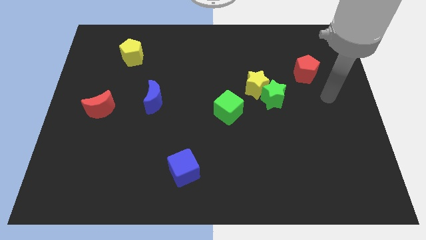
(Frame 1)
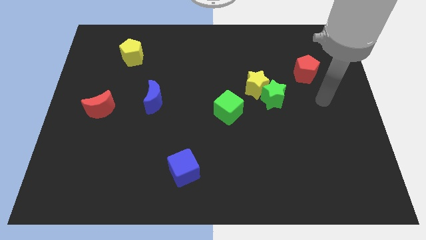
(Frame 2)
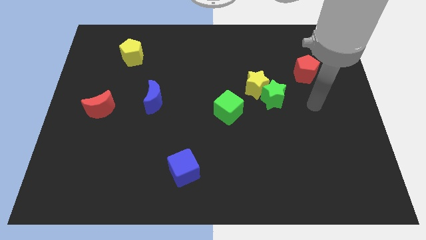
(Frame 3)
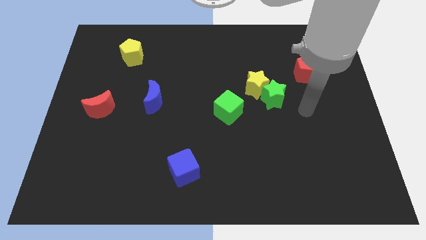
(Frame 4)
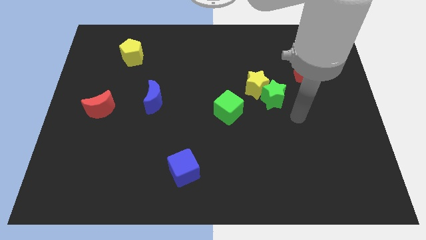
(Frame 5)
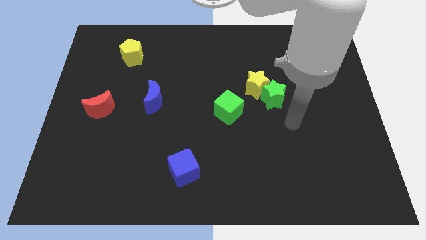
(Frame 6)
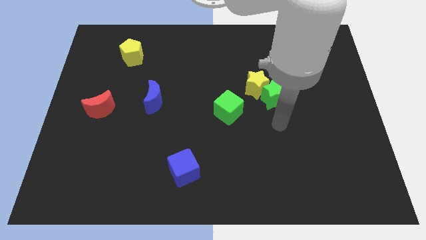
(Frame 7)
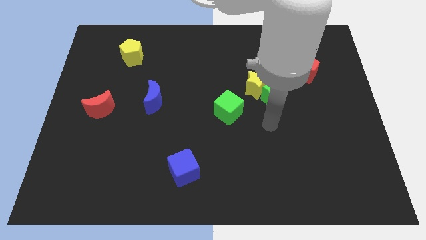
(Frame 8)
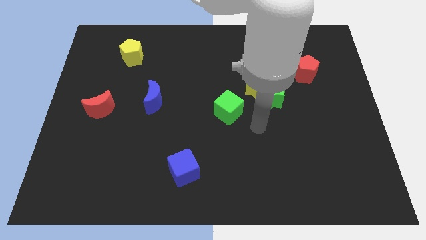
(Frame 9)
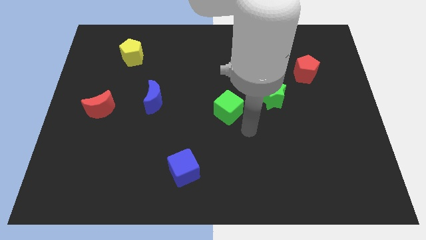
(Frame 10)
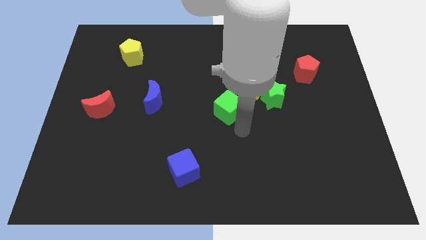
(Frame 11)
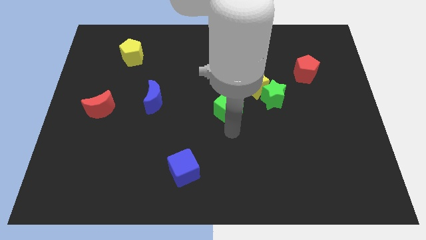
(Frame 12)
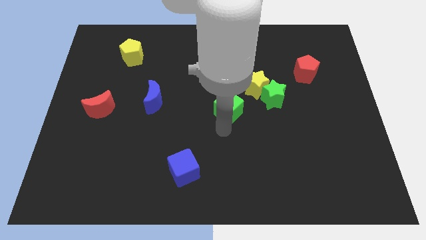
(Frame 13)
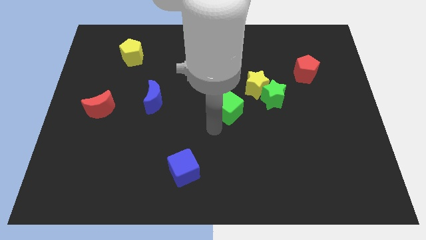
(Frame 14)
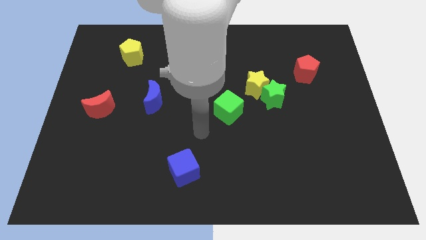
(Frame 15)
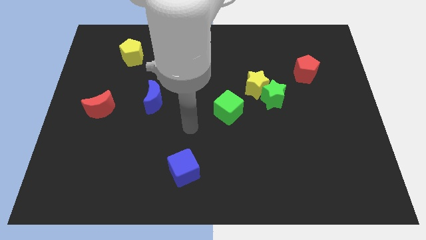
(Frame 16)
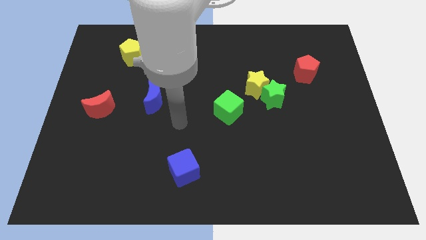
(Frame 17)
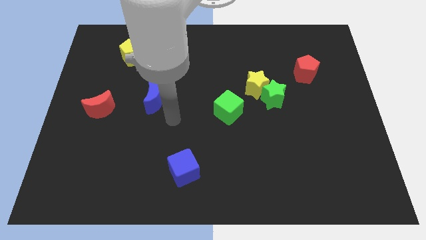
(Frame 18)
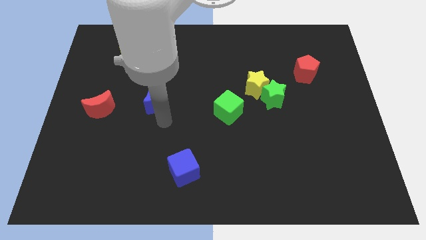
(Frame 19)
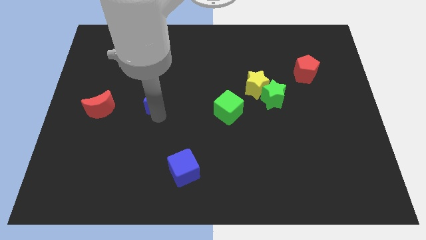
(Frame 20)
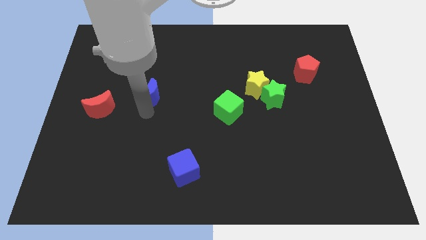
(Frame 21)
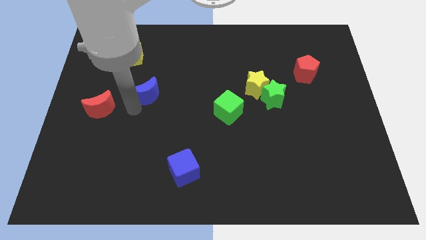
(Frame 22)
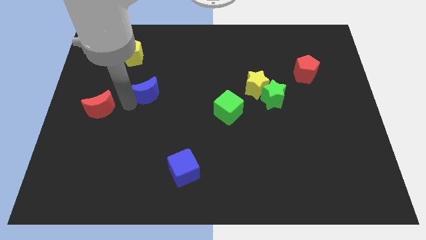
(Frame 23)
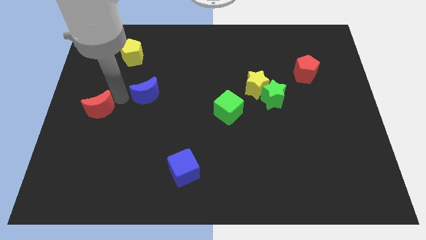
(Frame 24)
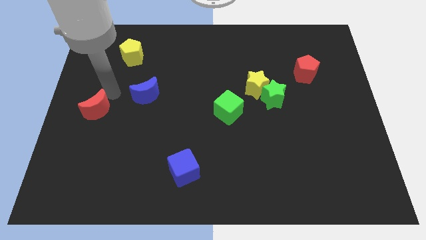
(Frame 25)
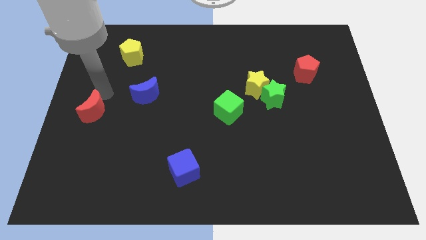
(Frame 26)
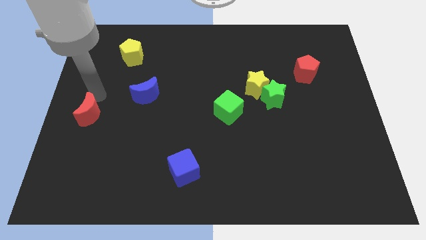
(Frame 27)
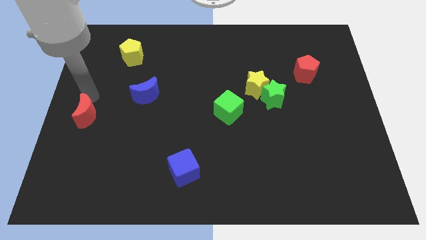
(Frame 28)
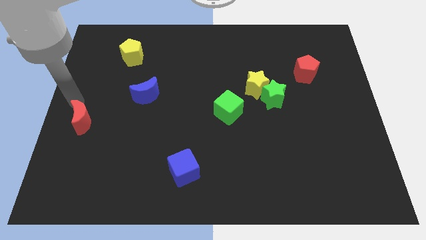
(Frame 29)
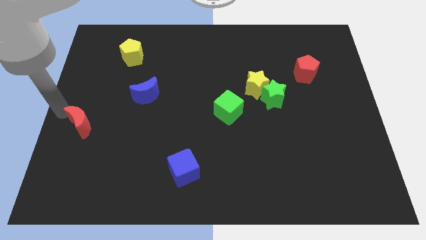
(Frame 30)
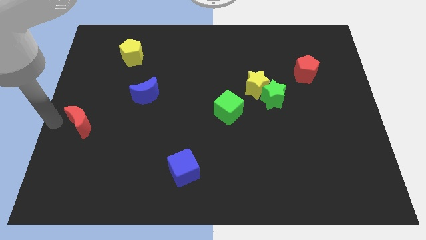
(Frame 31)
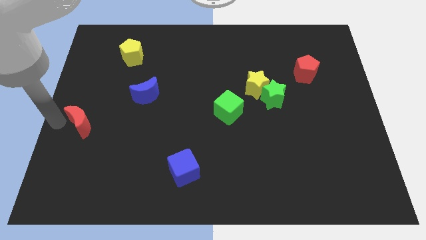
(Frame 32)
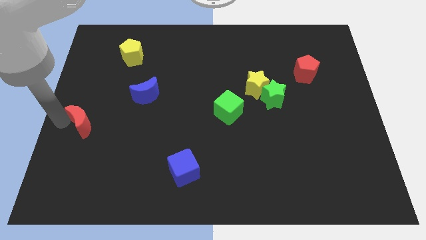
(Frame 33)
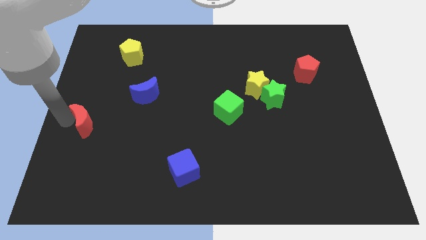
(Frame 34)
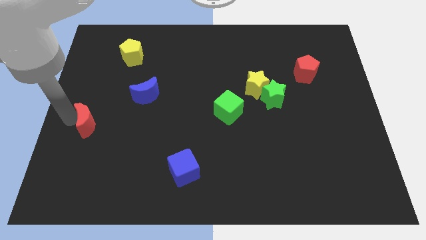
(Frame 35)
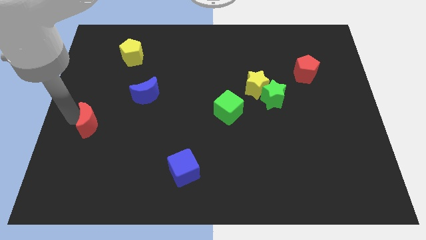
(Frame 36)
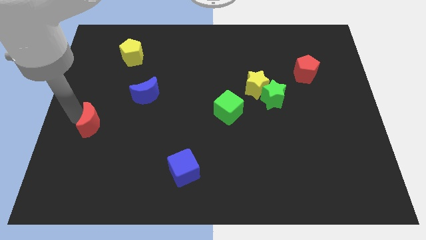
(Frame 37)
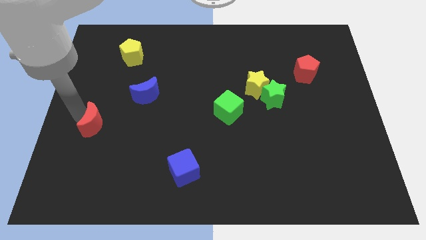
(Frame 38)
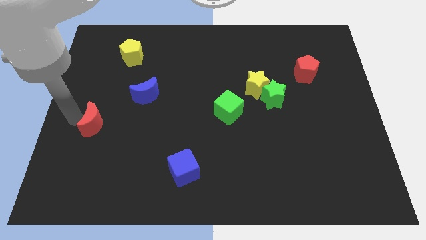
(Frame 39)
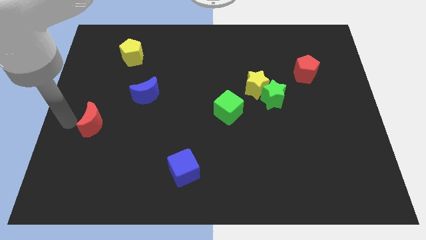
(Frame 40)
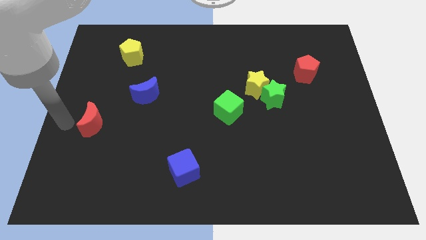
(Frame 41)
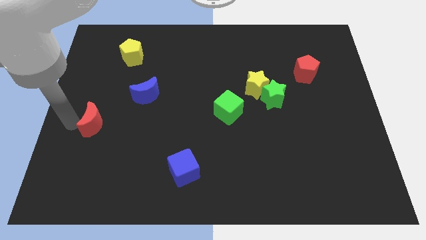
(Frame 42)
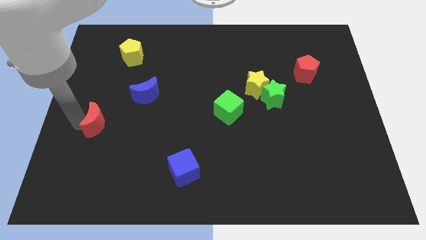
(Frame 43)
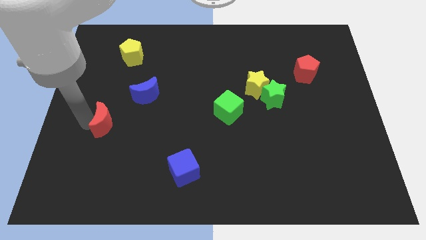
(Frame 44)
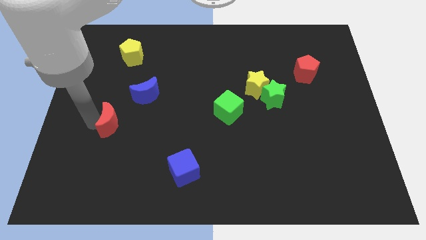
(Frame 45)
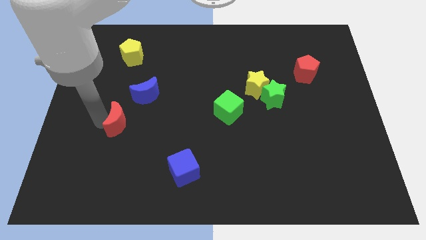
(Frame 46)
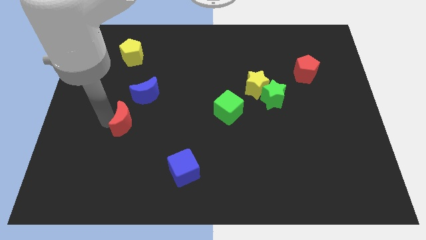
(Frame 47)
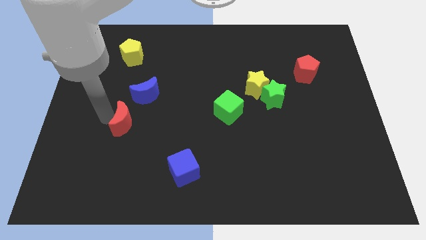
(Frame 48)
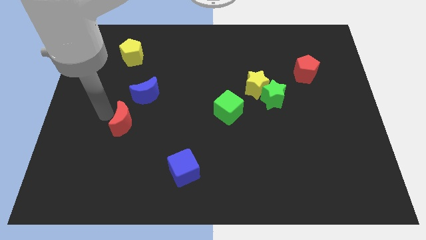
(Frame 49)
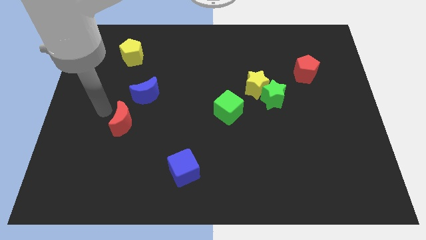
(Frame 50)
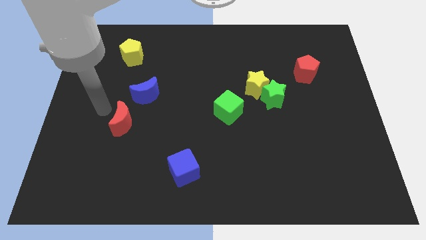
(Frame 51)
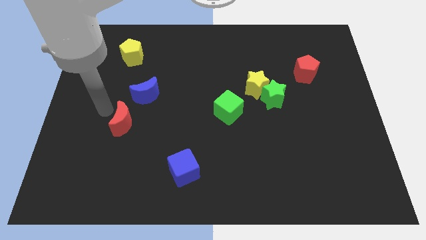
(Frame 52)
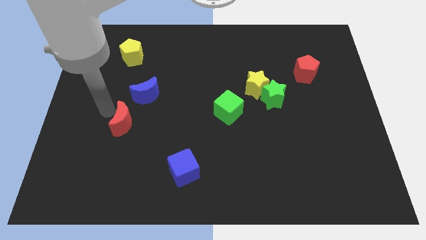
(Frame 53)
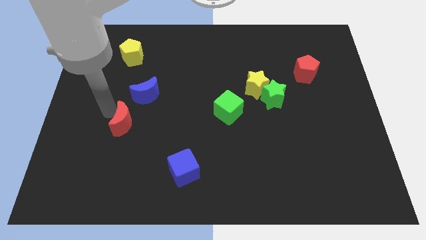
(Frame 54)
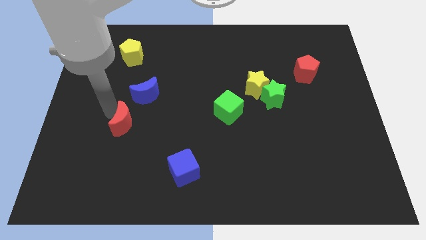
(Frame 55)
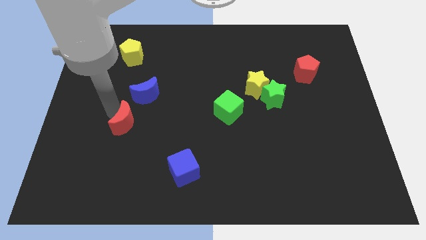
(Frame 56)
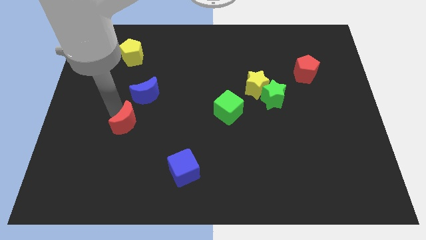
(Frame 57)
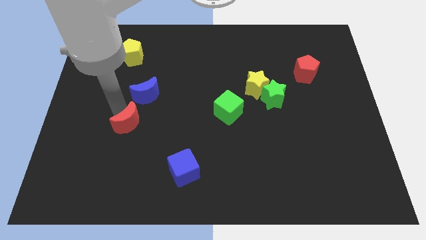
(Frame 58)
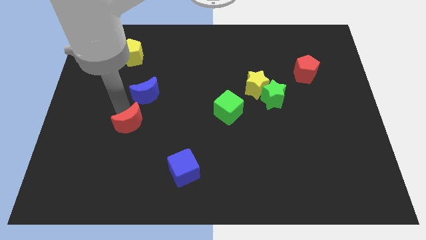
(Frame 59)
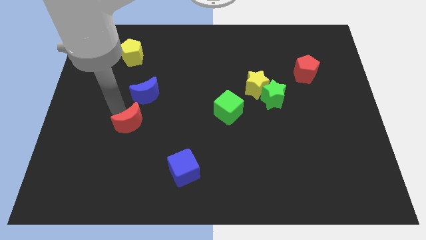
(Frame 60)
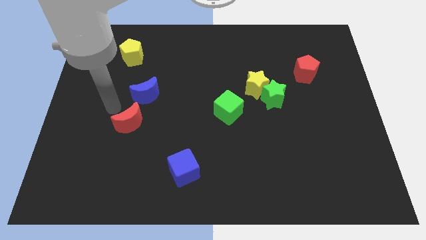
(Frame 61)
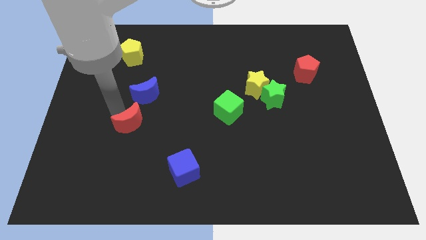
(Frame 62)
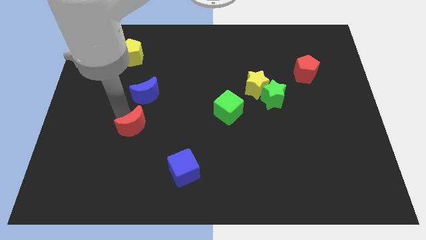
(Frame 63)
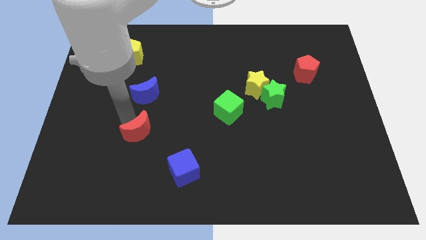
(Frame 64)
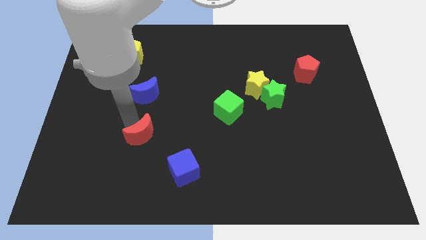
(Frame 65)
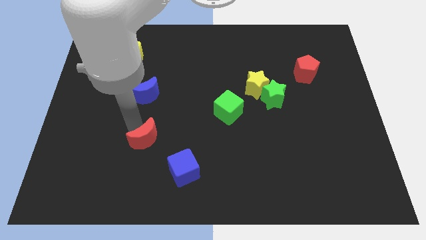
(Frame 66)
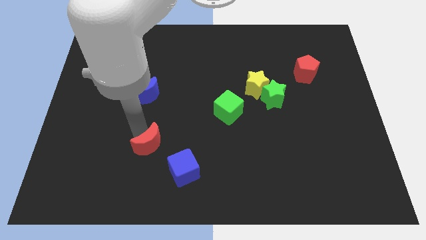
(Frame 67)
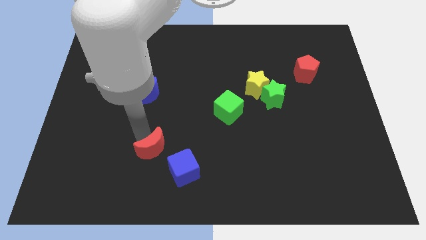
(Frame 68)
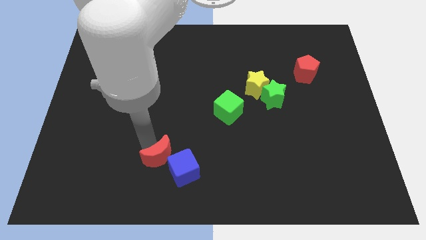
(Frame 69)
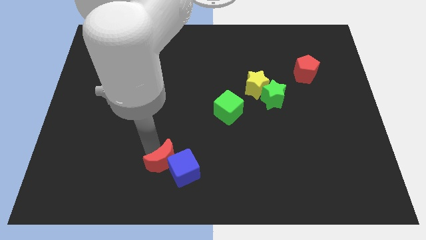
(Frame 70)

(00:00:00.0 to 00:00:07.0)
slide the red moon next to the blue cube
